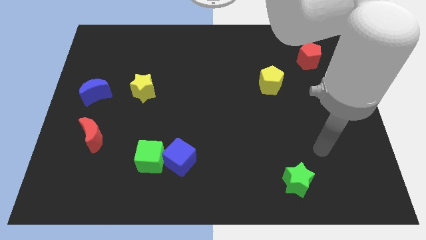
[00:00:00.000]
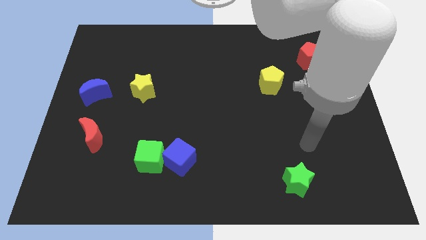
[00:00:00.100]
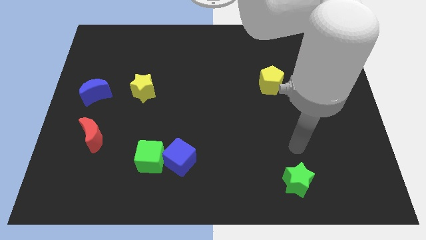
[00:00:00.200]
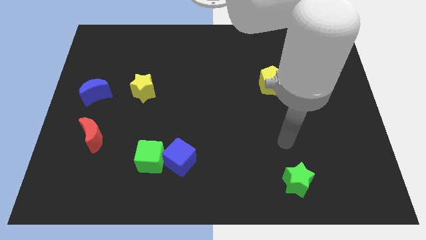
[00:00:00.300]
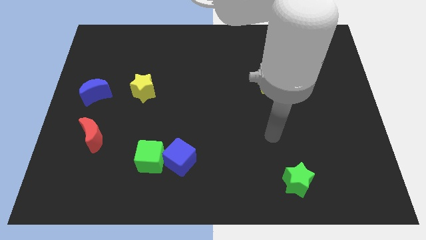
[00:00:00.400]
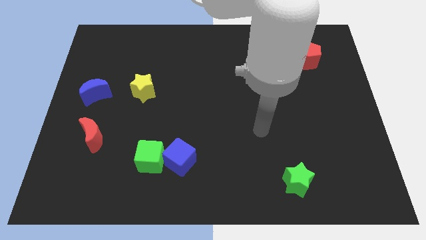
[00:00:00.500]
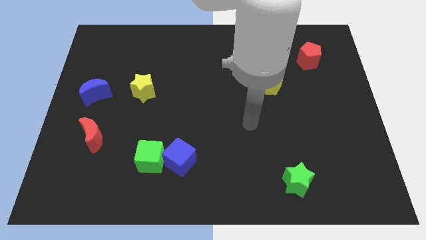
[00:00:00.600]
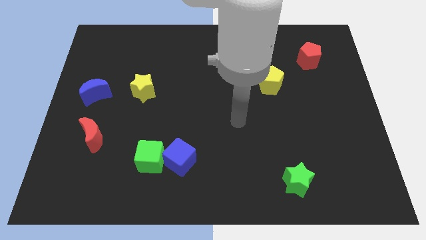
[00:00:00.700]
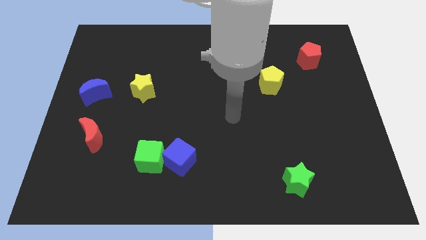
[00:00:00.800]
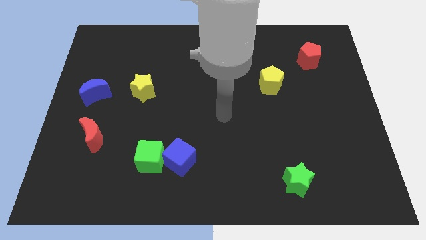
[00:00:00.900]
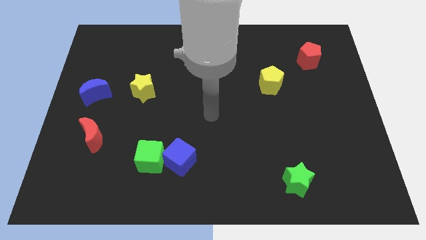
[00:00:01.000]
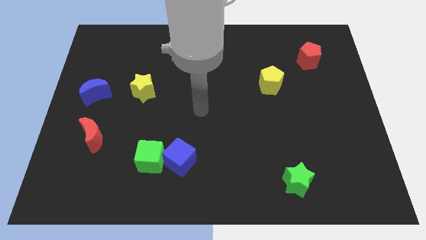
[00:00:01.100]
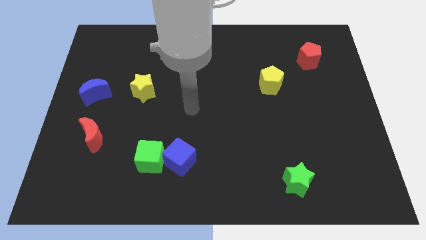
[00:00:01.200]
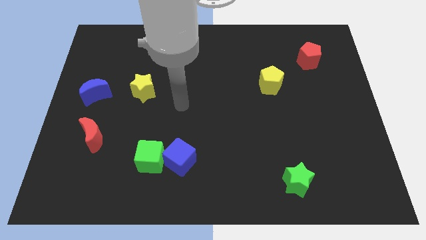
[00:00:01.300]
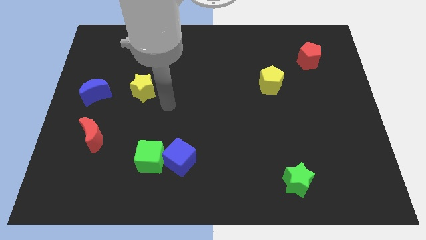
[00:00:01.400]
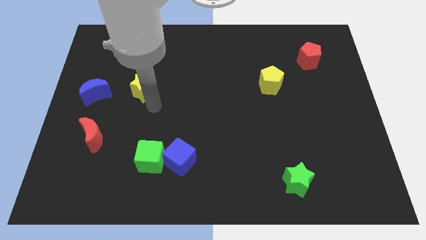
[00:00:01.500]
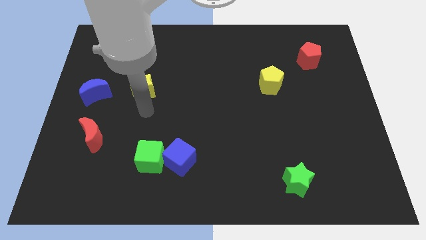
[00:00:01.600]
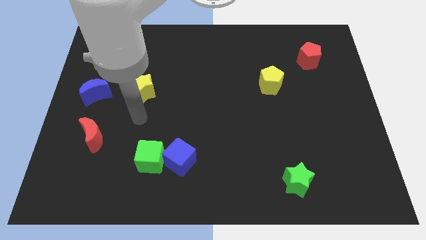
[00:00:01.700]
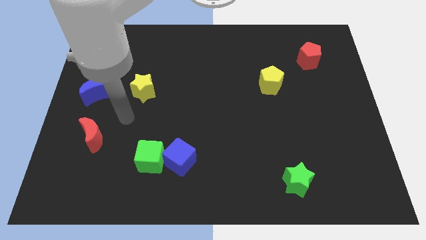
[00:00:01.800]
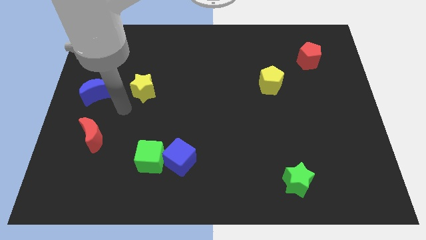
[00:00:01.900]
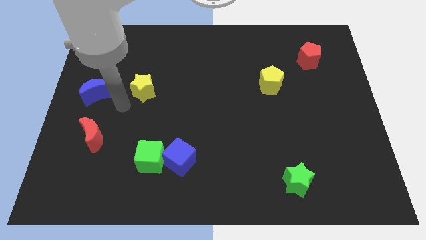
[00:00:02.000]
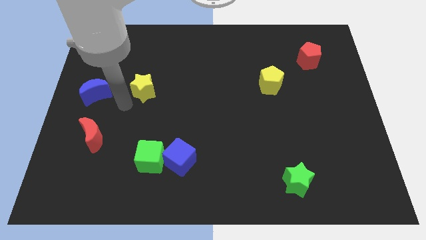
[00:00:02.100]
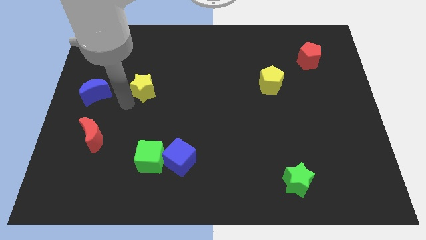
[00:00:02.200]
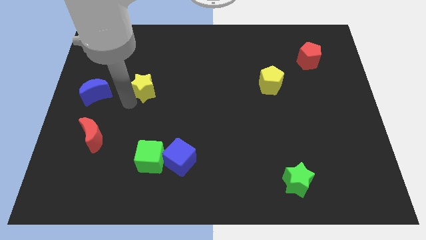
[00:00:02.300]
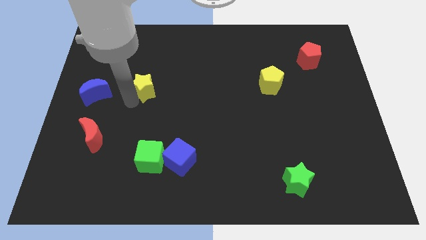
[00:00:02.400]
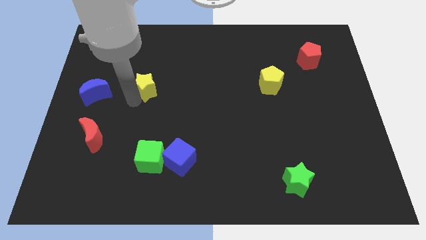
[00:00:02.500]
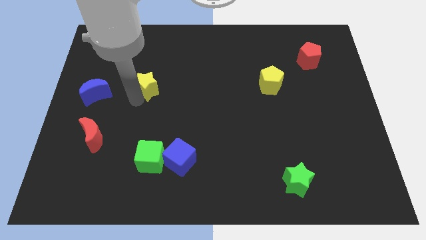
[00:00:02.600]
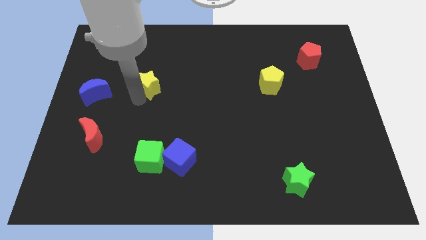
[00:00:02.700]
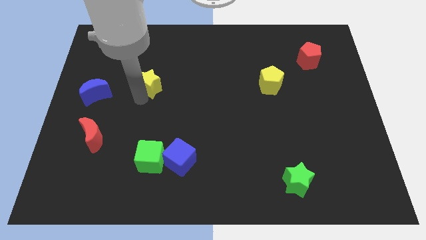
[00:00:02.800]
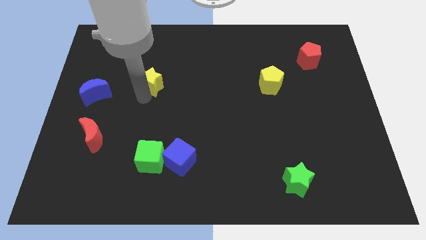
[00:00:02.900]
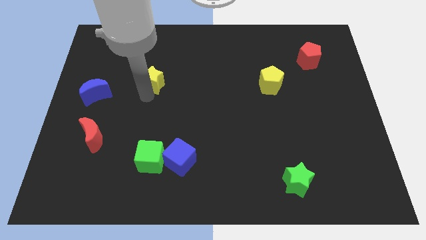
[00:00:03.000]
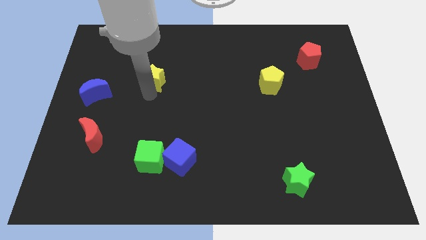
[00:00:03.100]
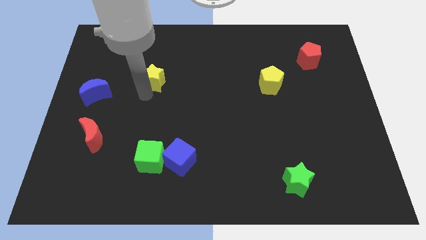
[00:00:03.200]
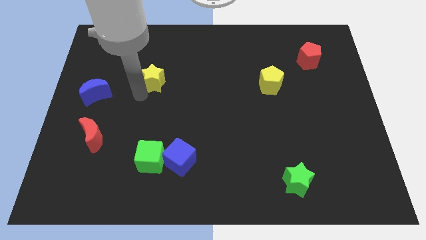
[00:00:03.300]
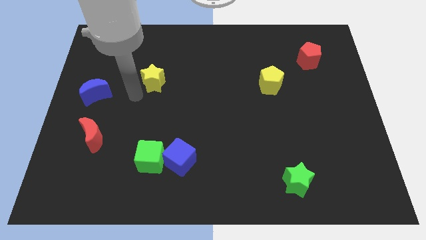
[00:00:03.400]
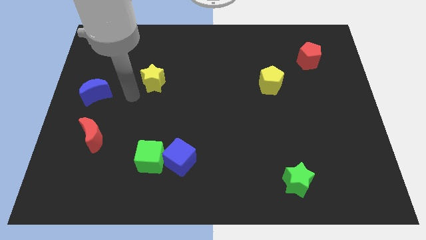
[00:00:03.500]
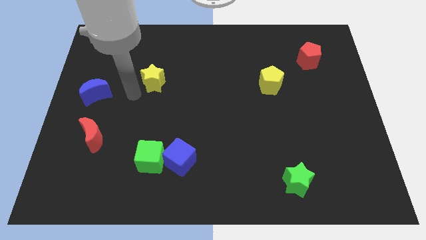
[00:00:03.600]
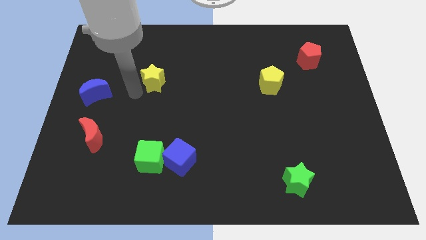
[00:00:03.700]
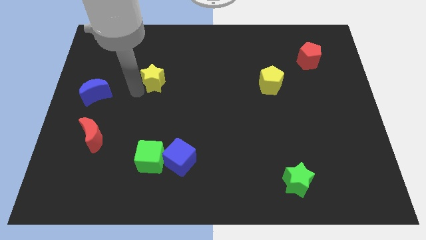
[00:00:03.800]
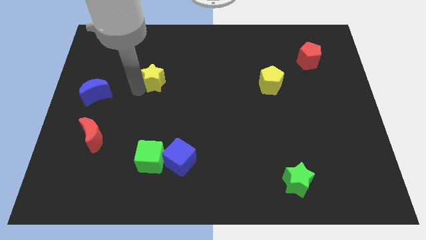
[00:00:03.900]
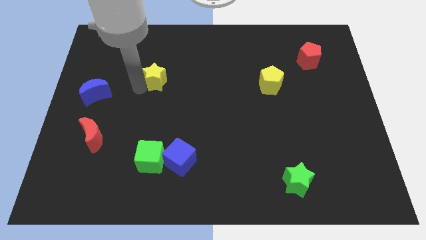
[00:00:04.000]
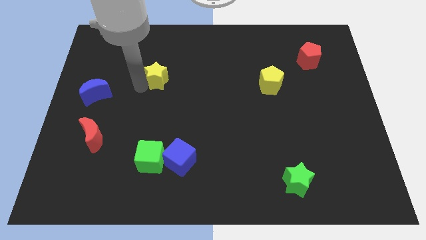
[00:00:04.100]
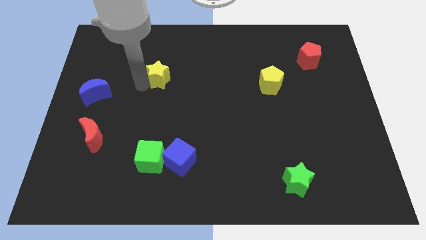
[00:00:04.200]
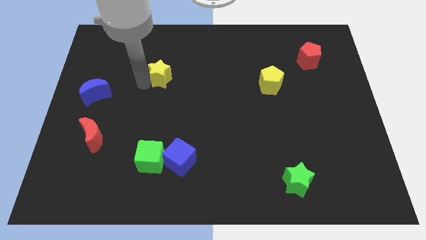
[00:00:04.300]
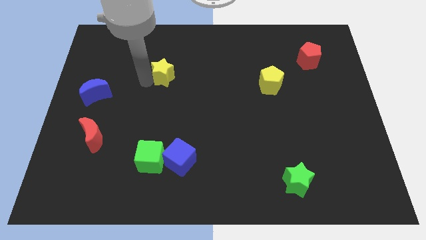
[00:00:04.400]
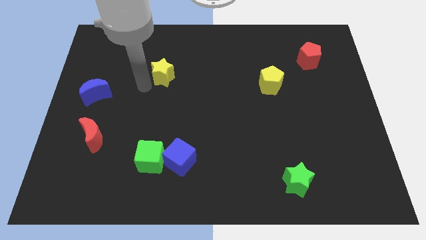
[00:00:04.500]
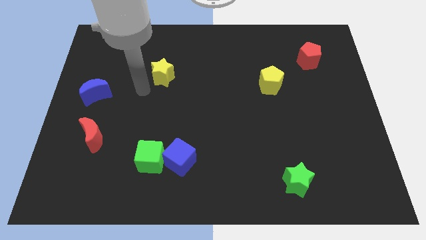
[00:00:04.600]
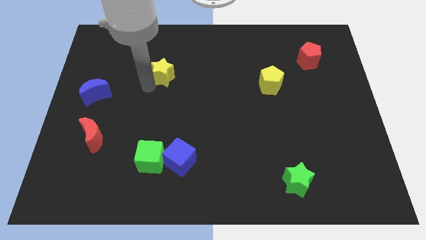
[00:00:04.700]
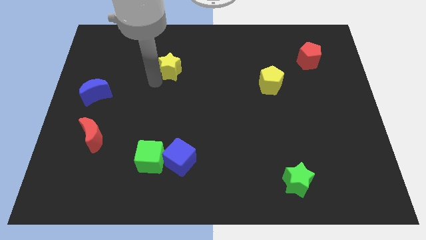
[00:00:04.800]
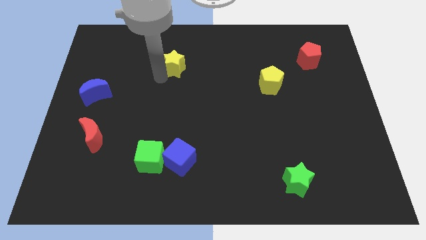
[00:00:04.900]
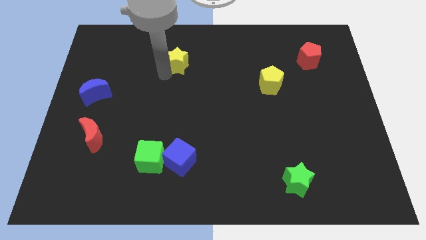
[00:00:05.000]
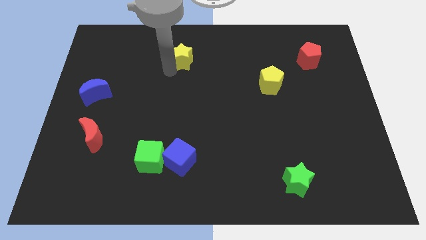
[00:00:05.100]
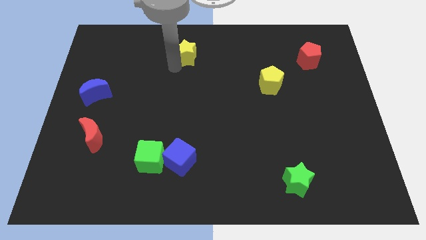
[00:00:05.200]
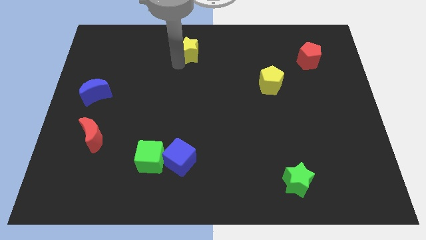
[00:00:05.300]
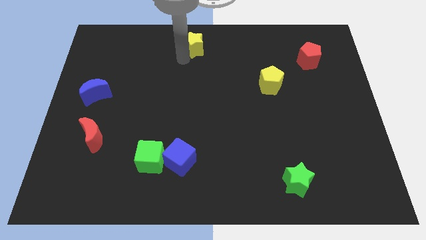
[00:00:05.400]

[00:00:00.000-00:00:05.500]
push the yellow star to the top side

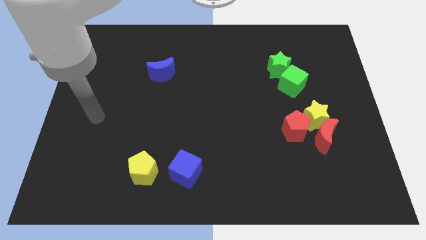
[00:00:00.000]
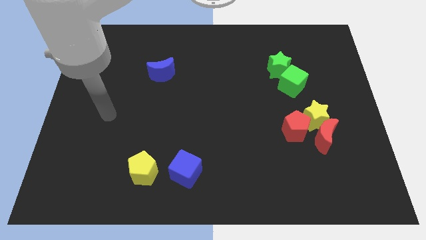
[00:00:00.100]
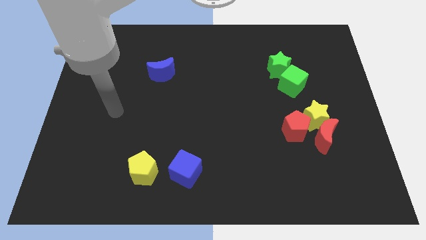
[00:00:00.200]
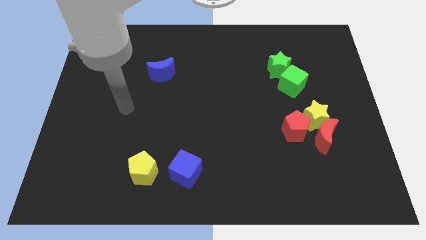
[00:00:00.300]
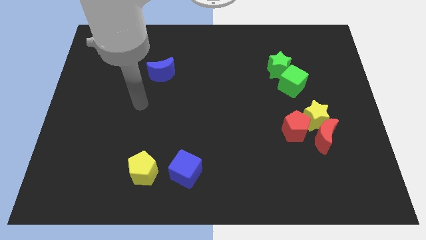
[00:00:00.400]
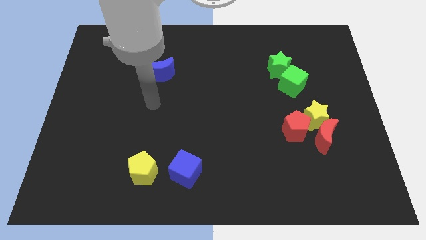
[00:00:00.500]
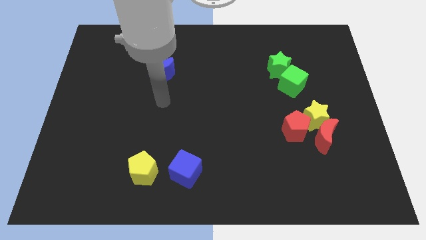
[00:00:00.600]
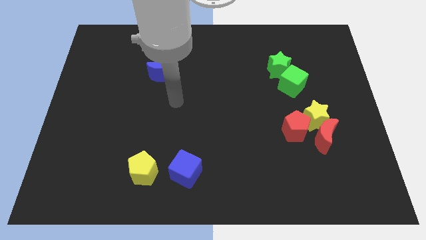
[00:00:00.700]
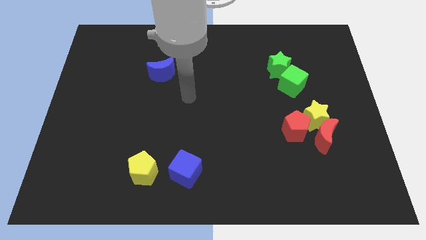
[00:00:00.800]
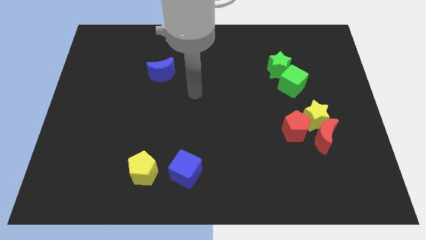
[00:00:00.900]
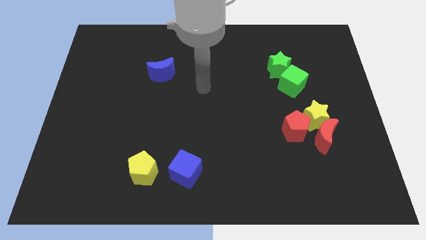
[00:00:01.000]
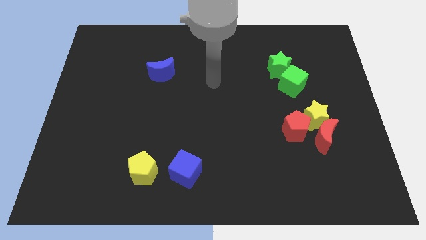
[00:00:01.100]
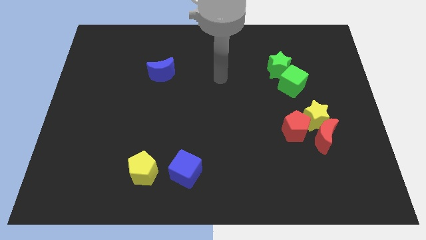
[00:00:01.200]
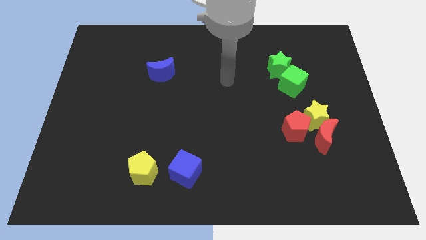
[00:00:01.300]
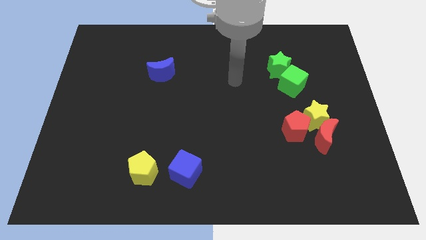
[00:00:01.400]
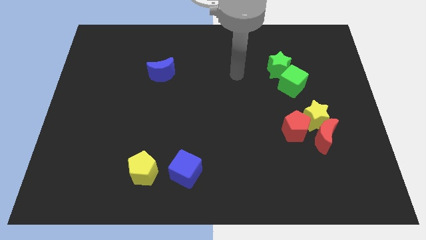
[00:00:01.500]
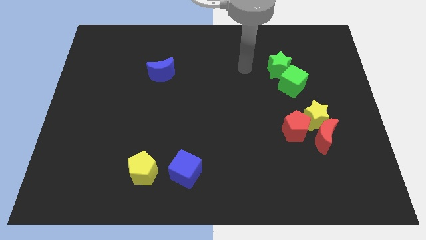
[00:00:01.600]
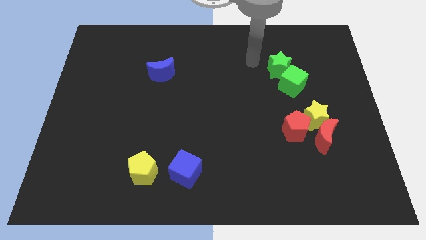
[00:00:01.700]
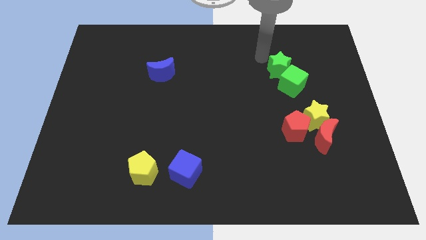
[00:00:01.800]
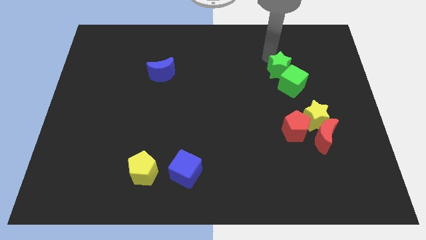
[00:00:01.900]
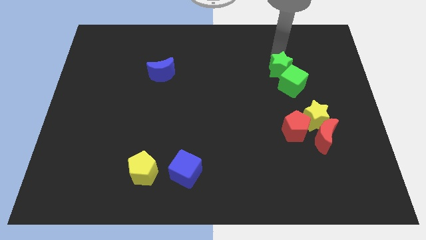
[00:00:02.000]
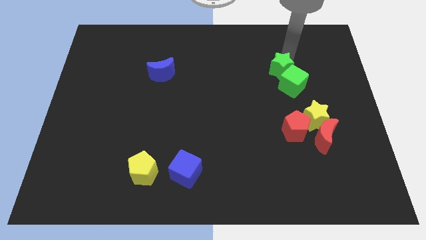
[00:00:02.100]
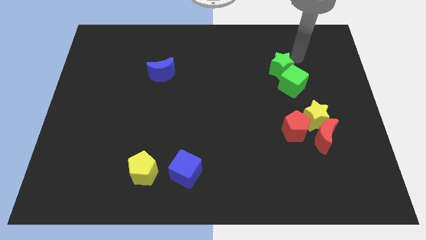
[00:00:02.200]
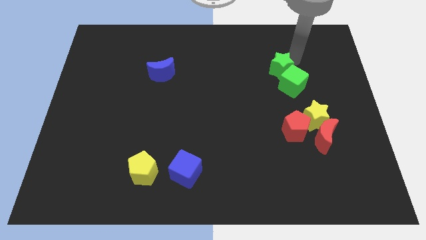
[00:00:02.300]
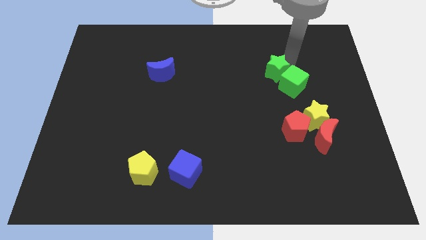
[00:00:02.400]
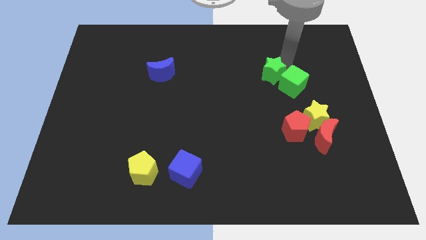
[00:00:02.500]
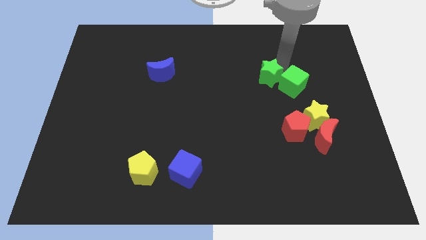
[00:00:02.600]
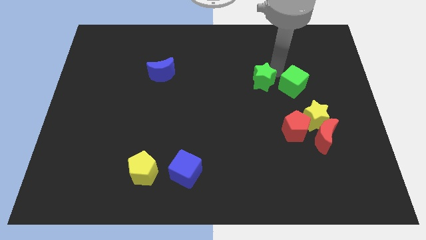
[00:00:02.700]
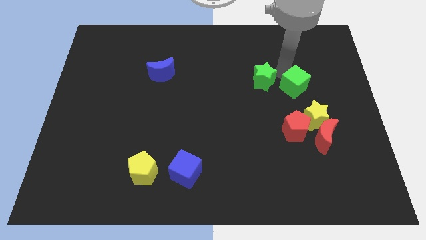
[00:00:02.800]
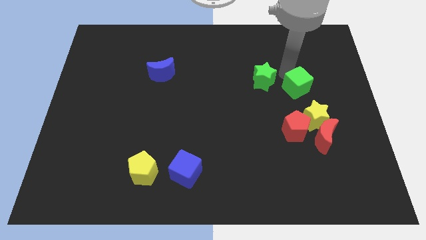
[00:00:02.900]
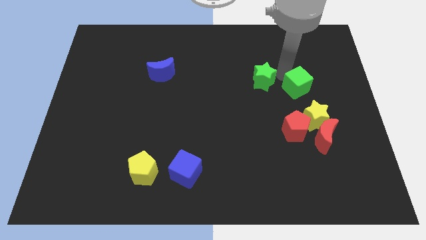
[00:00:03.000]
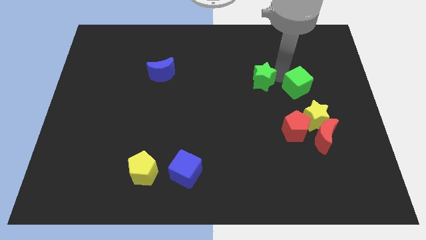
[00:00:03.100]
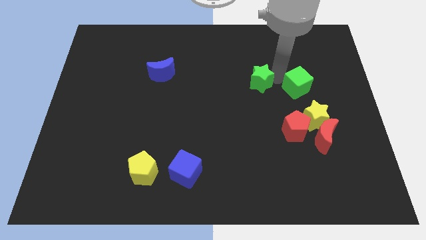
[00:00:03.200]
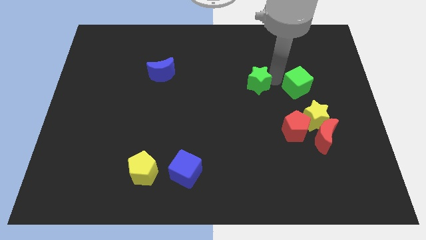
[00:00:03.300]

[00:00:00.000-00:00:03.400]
move the green star to the middle of the board
